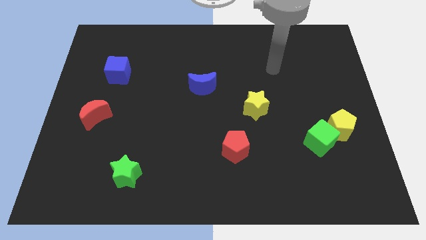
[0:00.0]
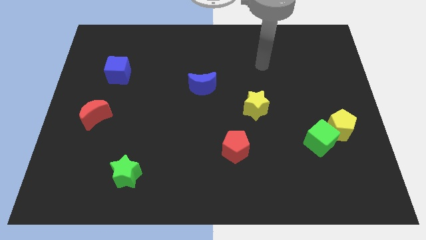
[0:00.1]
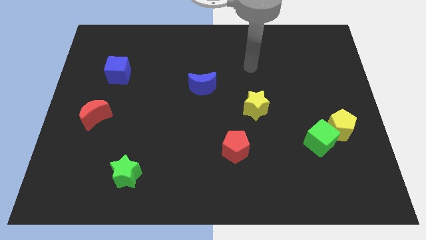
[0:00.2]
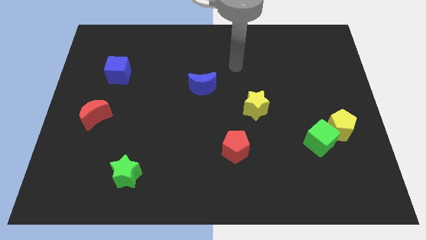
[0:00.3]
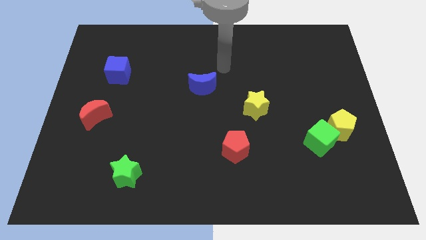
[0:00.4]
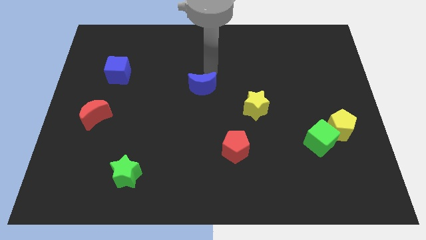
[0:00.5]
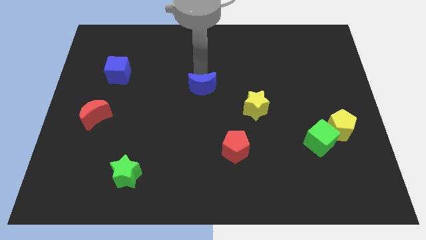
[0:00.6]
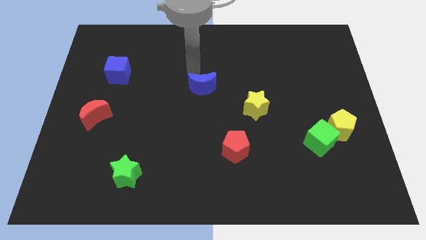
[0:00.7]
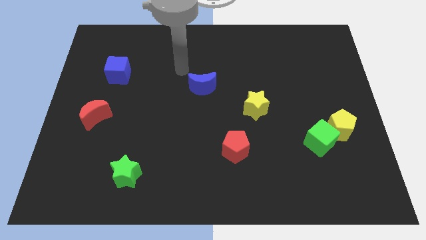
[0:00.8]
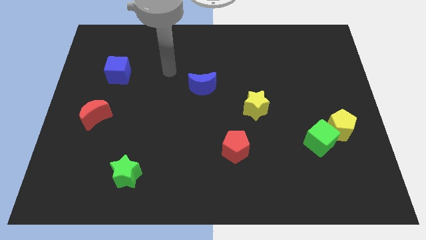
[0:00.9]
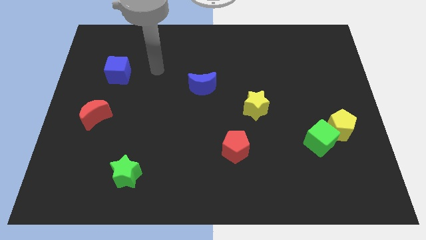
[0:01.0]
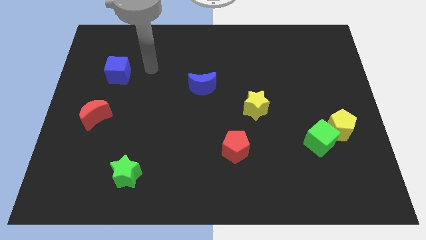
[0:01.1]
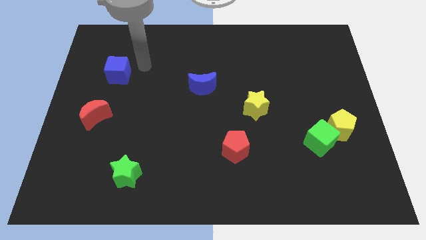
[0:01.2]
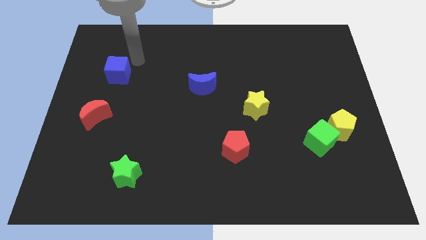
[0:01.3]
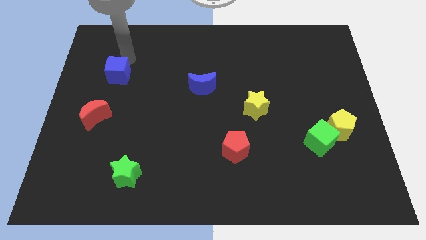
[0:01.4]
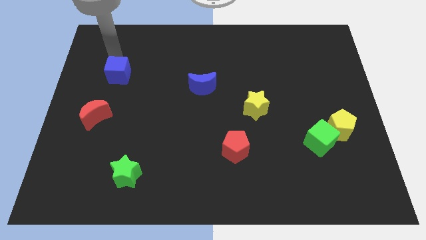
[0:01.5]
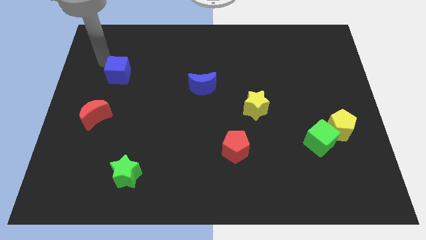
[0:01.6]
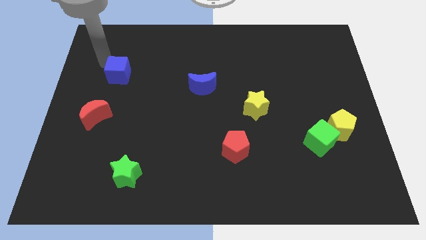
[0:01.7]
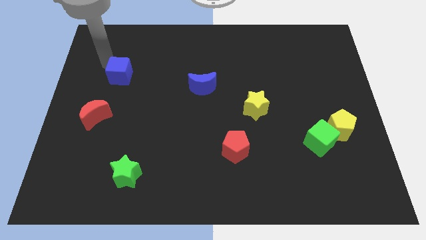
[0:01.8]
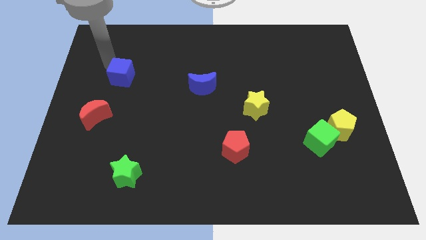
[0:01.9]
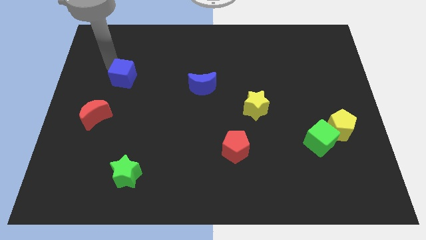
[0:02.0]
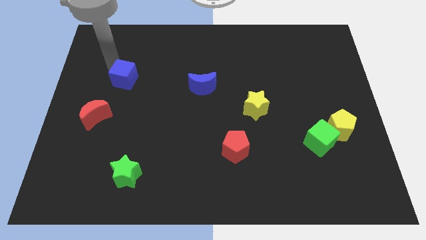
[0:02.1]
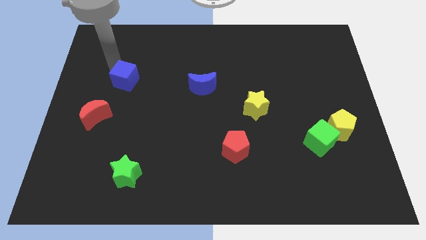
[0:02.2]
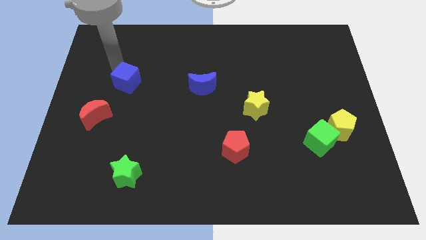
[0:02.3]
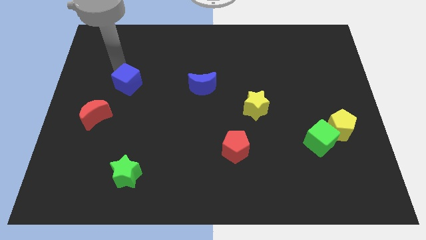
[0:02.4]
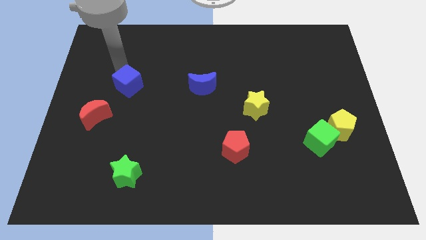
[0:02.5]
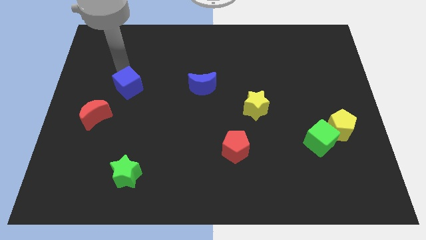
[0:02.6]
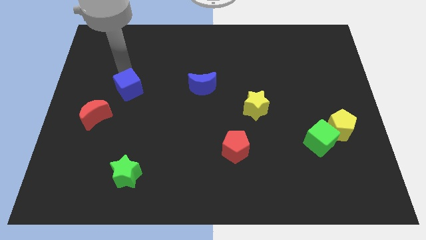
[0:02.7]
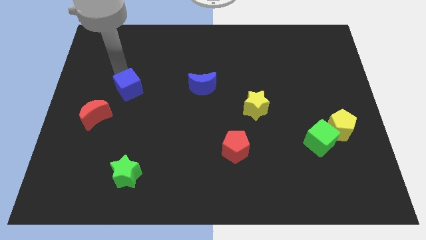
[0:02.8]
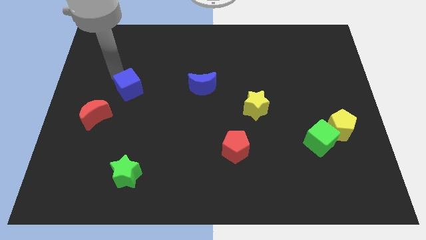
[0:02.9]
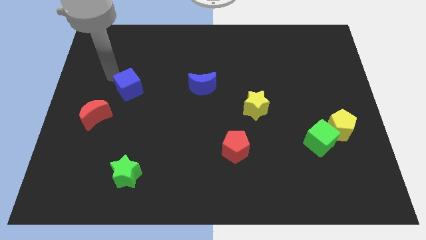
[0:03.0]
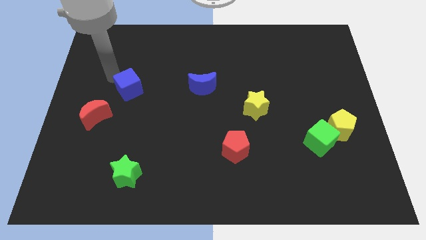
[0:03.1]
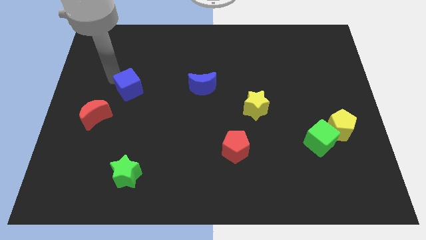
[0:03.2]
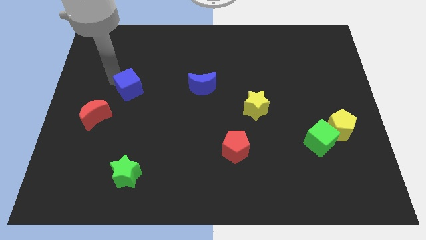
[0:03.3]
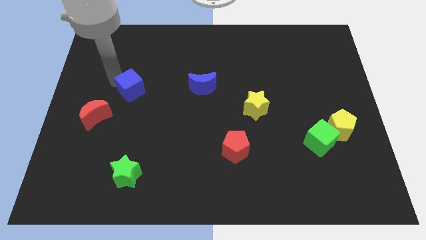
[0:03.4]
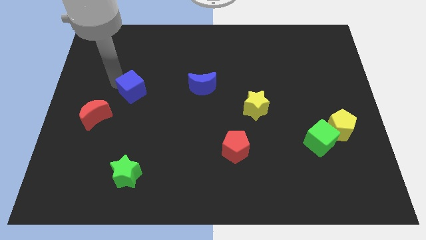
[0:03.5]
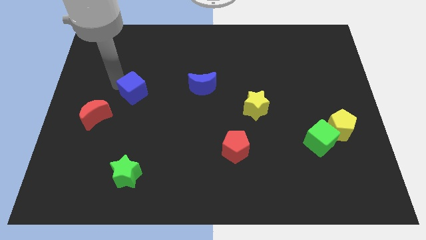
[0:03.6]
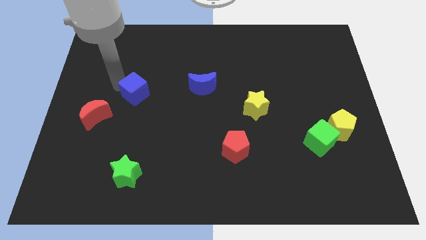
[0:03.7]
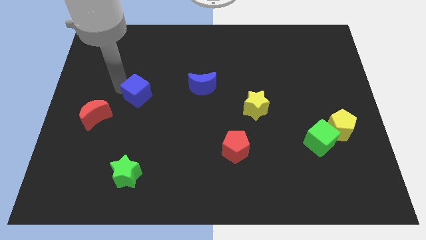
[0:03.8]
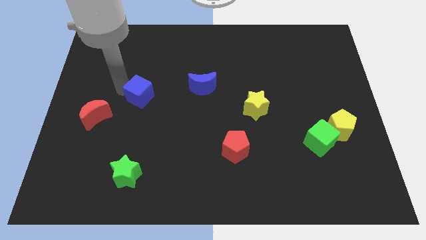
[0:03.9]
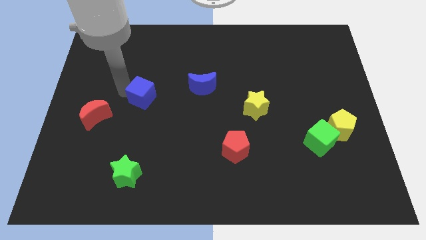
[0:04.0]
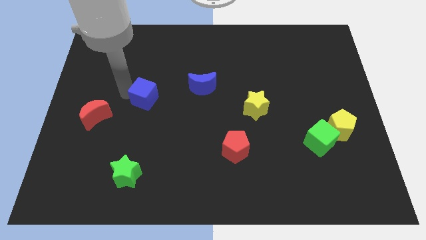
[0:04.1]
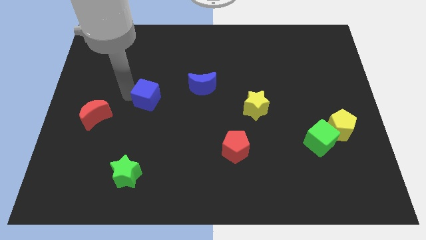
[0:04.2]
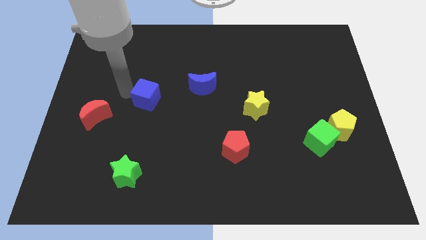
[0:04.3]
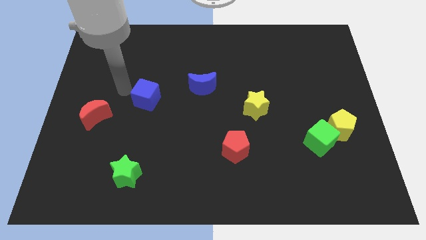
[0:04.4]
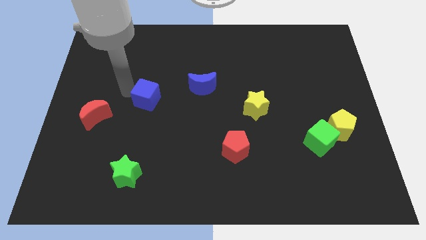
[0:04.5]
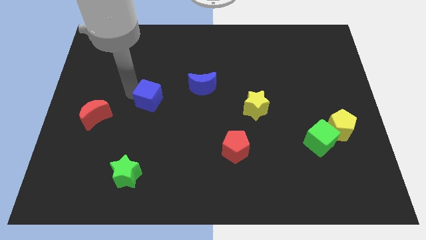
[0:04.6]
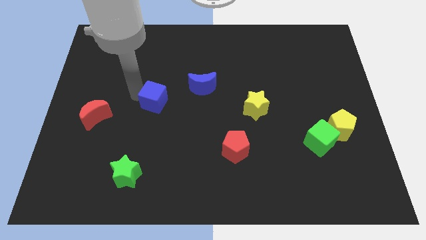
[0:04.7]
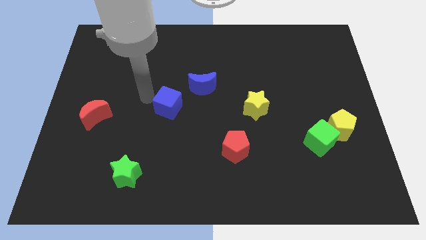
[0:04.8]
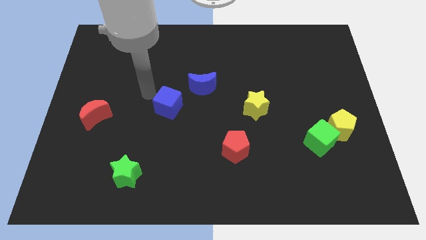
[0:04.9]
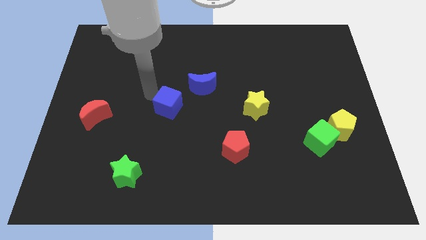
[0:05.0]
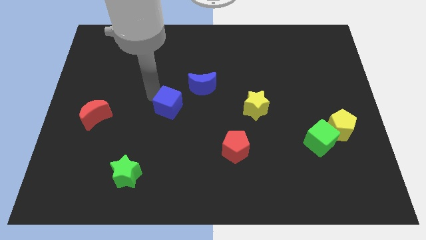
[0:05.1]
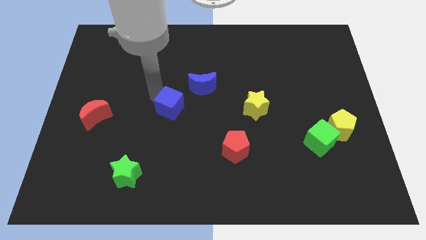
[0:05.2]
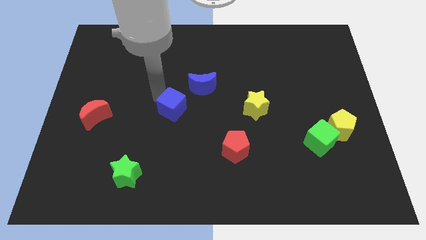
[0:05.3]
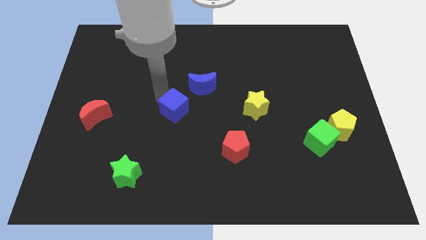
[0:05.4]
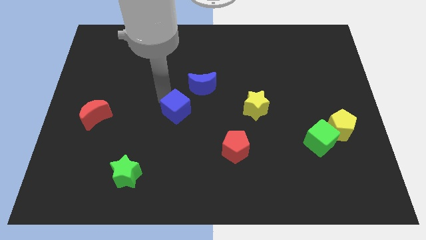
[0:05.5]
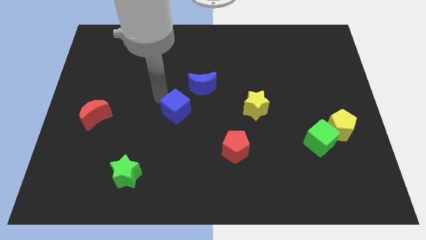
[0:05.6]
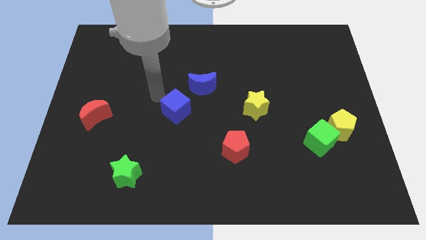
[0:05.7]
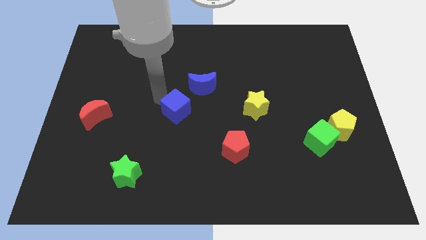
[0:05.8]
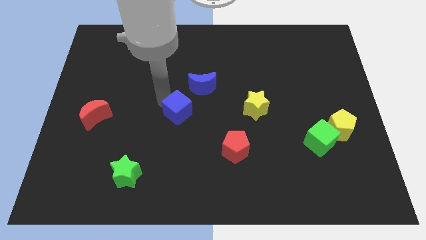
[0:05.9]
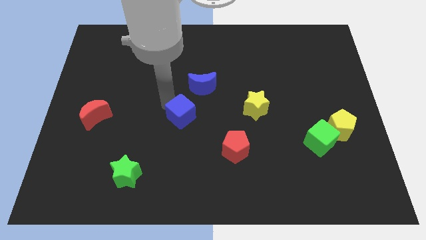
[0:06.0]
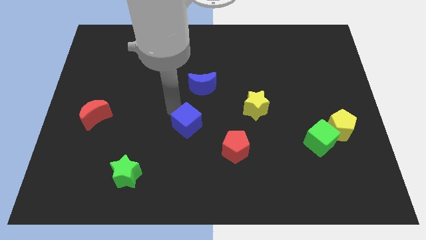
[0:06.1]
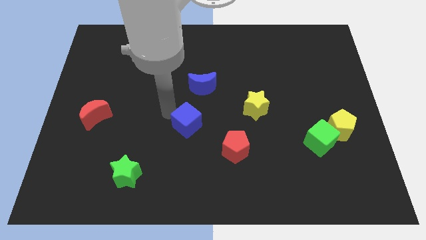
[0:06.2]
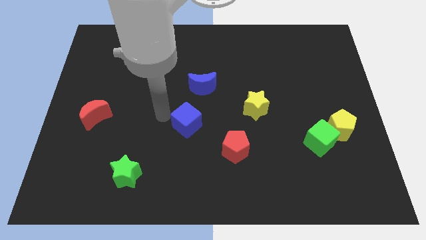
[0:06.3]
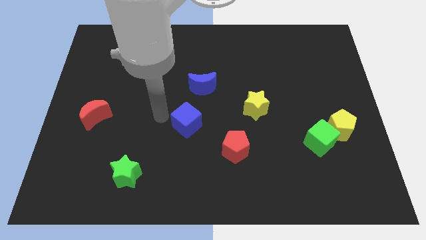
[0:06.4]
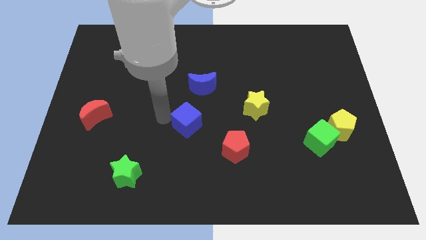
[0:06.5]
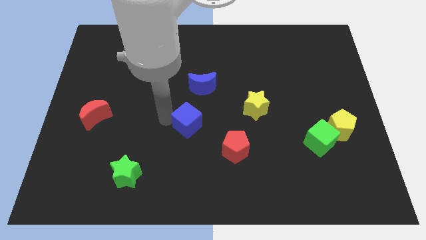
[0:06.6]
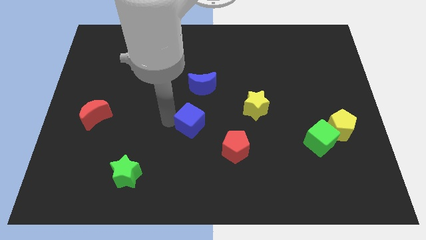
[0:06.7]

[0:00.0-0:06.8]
slide the blue cube to the top left side of the red pentagon
